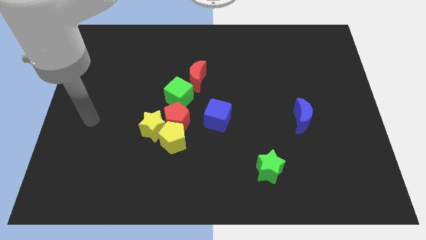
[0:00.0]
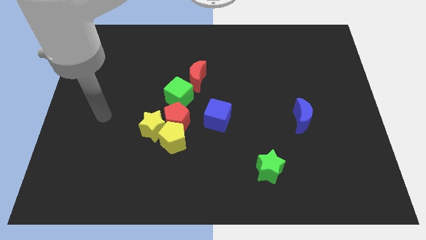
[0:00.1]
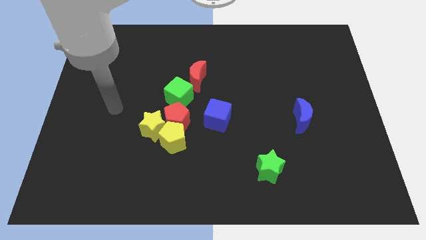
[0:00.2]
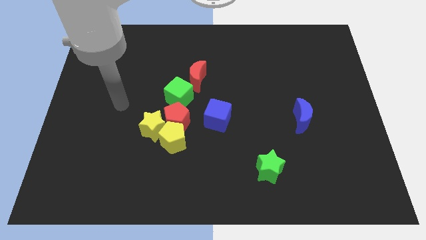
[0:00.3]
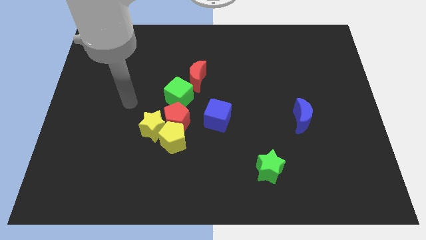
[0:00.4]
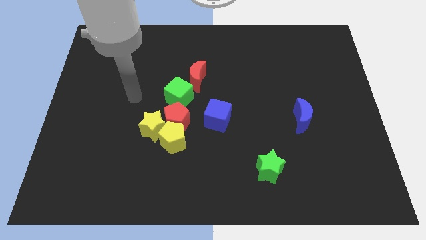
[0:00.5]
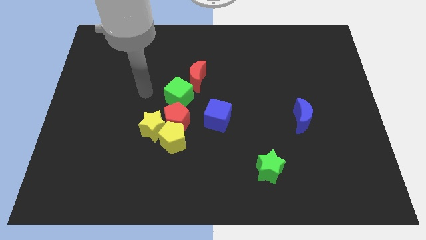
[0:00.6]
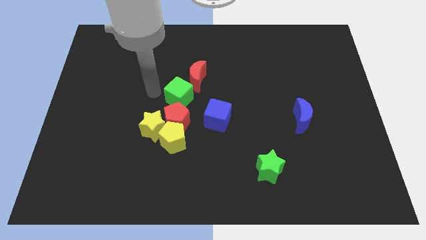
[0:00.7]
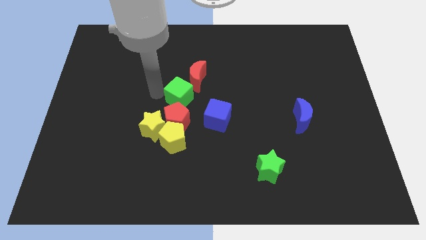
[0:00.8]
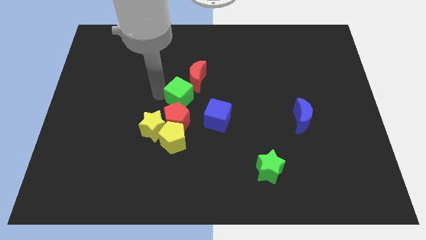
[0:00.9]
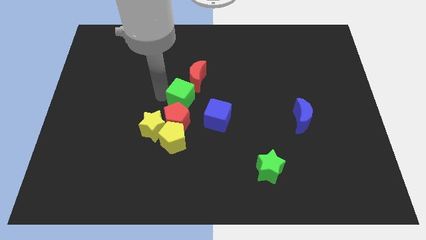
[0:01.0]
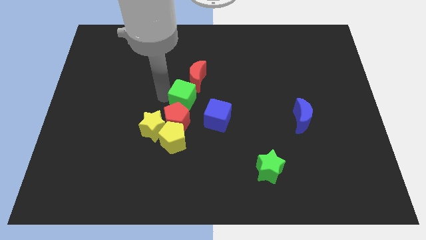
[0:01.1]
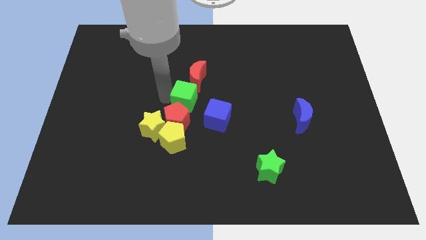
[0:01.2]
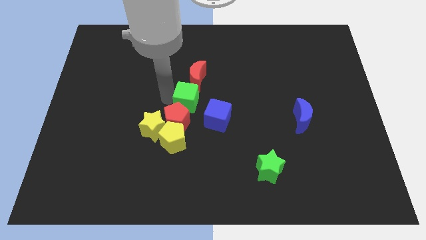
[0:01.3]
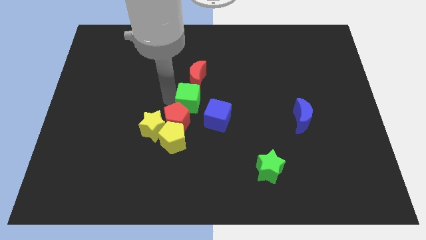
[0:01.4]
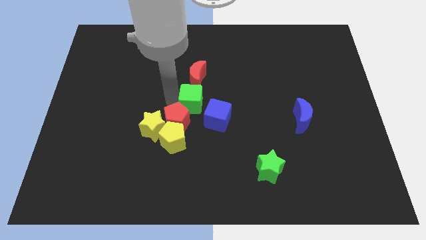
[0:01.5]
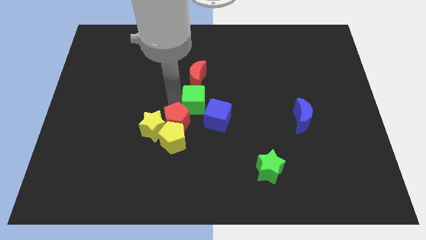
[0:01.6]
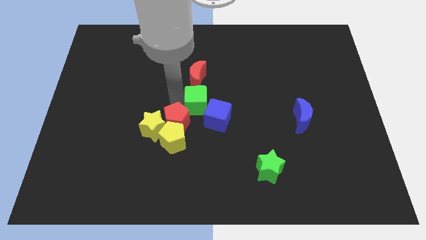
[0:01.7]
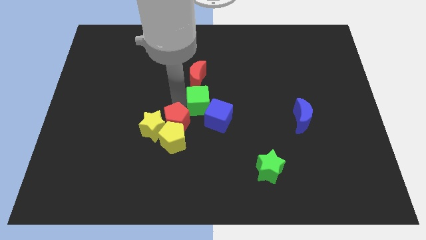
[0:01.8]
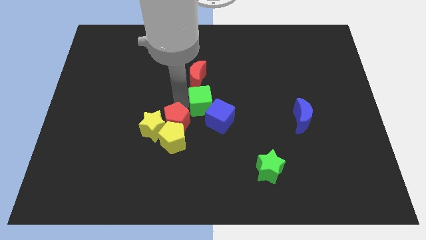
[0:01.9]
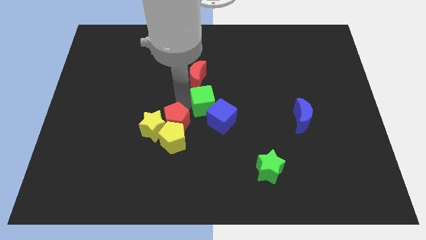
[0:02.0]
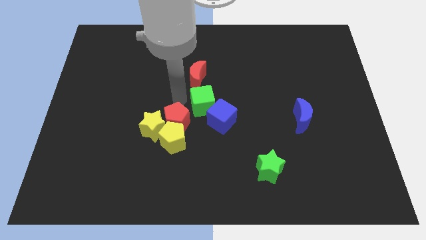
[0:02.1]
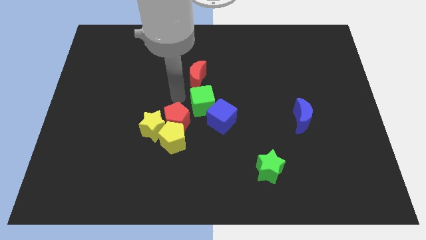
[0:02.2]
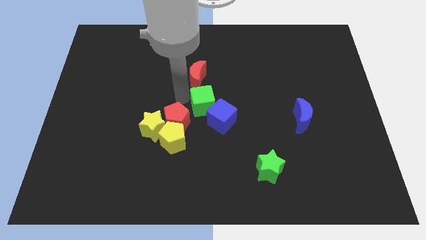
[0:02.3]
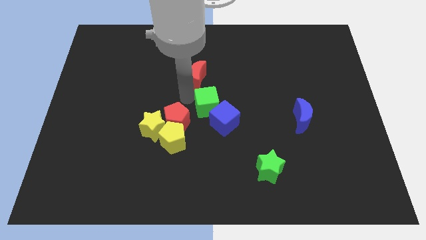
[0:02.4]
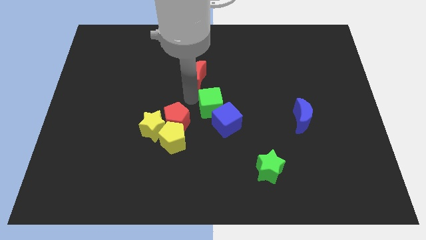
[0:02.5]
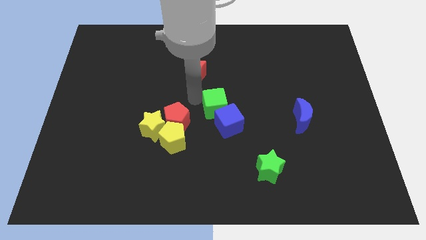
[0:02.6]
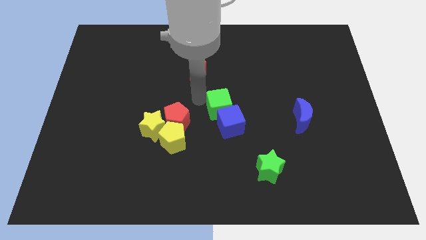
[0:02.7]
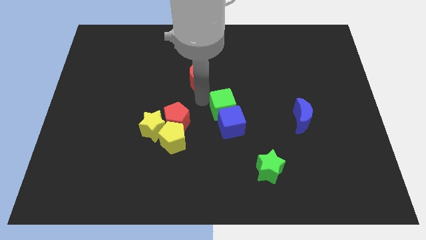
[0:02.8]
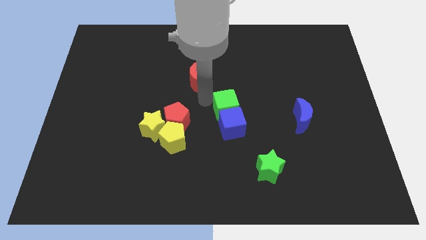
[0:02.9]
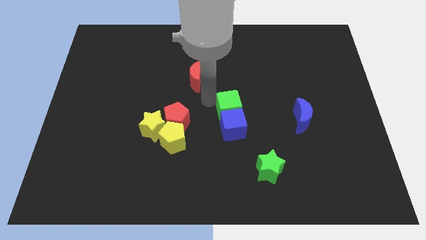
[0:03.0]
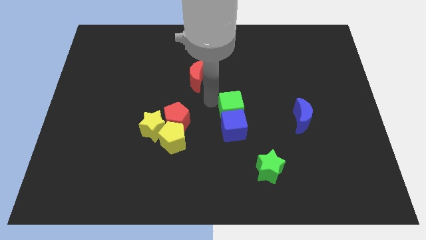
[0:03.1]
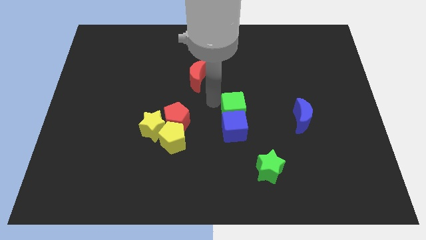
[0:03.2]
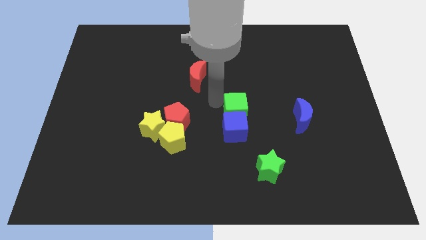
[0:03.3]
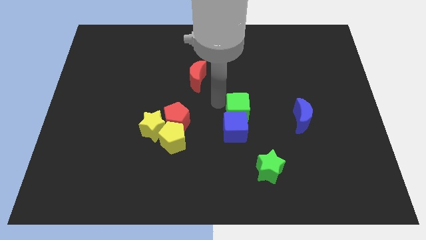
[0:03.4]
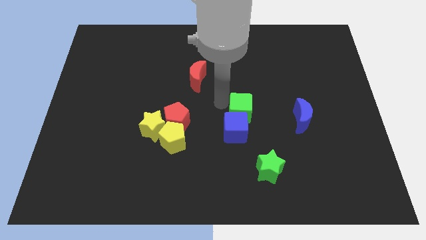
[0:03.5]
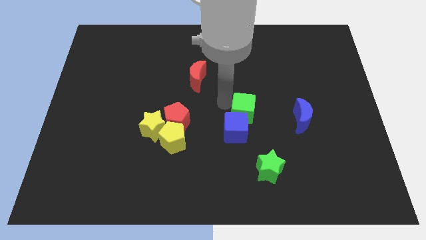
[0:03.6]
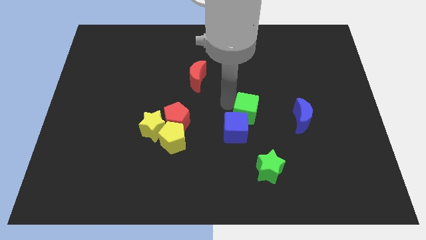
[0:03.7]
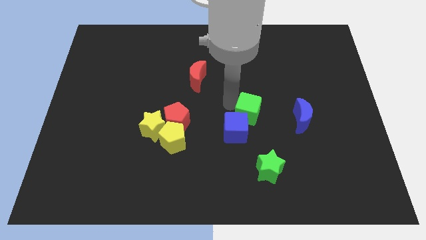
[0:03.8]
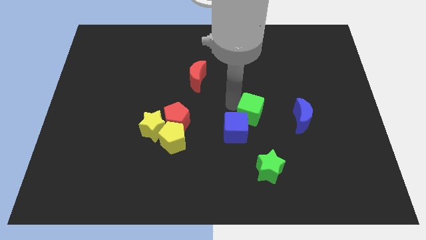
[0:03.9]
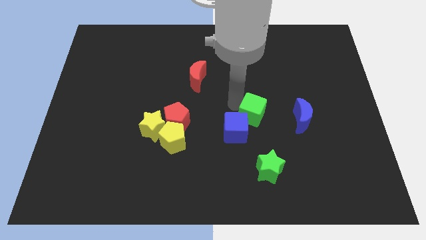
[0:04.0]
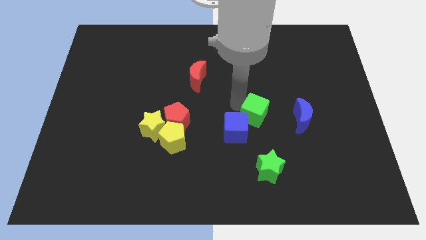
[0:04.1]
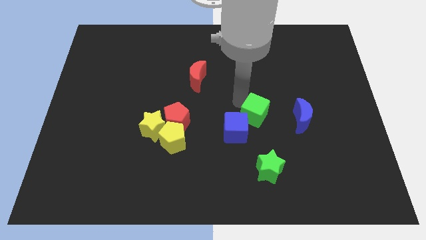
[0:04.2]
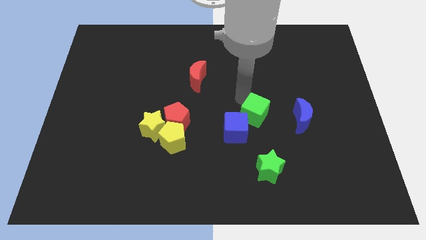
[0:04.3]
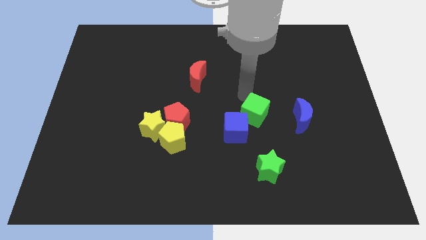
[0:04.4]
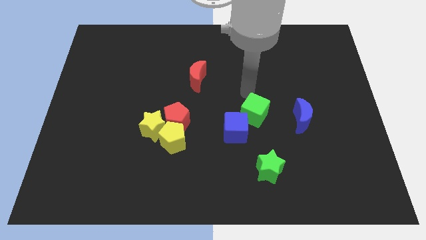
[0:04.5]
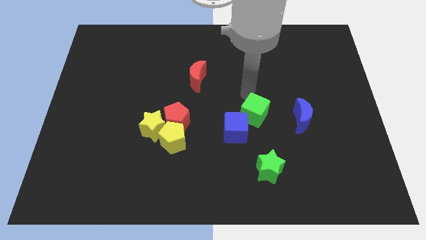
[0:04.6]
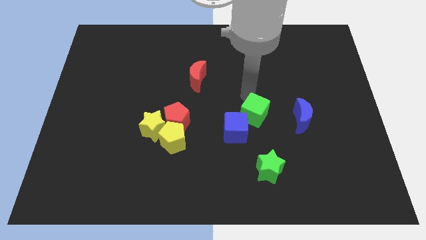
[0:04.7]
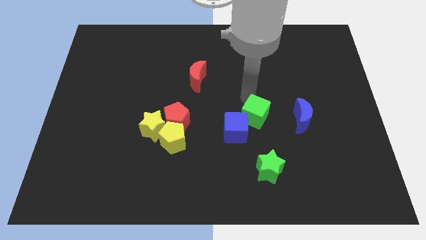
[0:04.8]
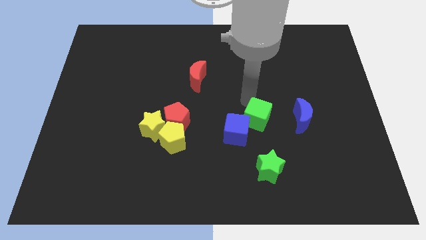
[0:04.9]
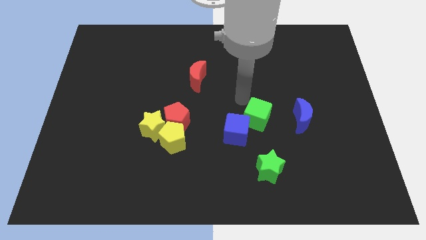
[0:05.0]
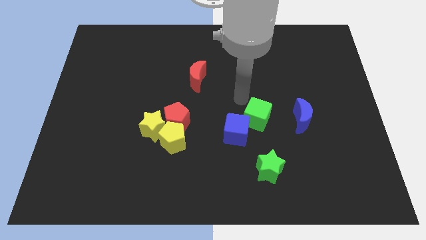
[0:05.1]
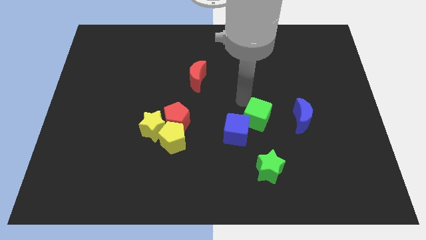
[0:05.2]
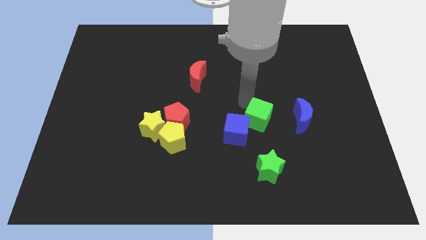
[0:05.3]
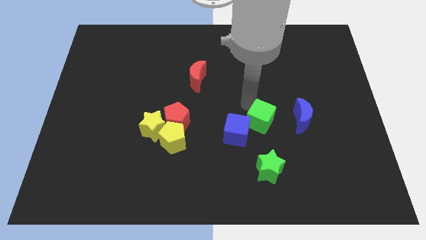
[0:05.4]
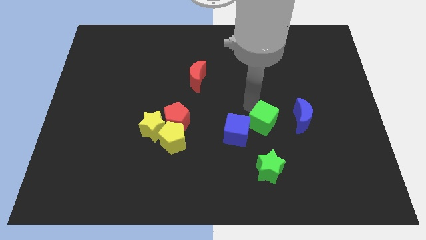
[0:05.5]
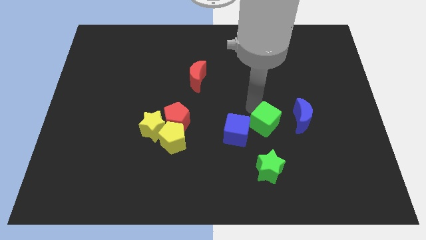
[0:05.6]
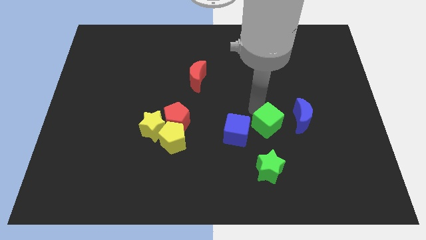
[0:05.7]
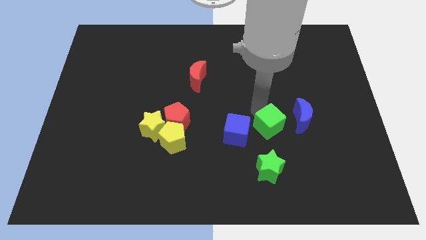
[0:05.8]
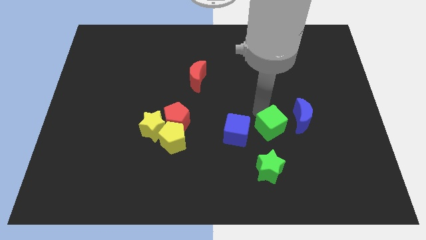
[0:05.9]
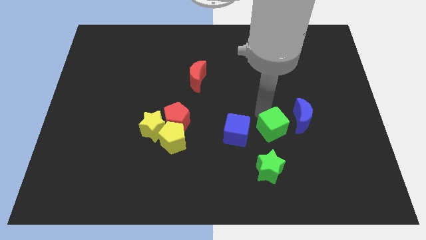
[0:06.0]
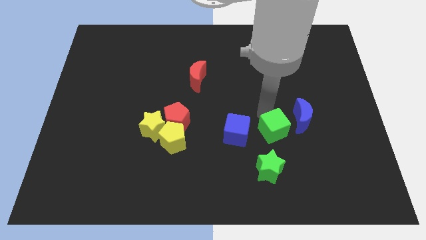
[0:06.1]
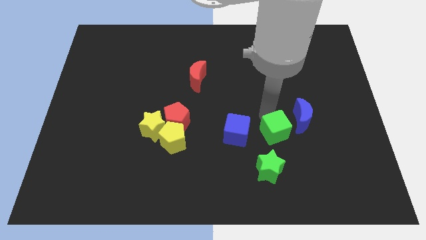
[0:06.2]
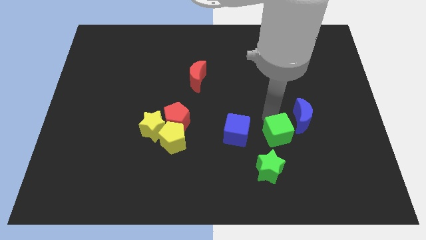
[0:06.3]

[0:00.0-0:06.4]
move the green cube diagonally downwards and to the right

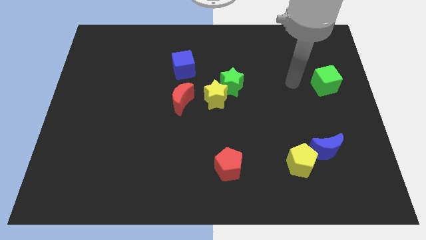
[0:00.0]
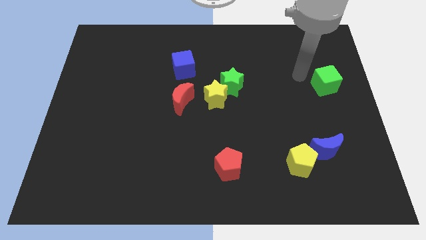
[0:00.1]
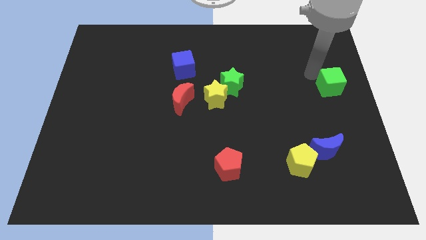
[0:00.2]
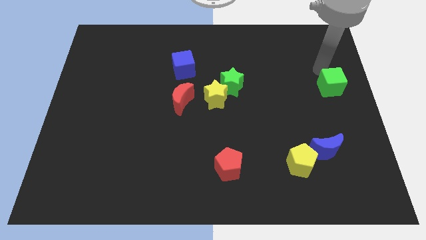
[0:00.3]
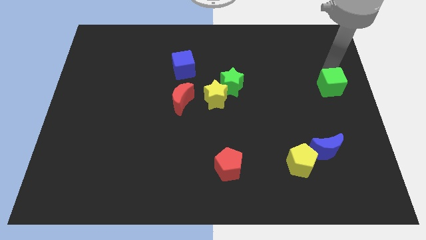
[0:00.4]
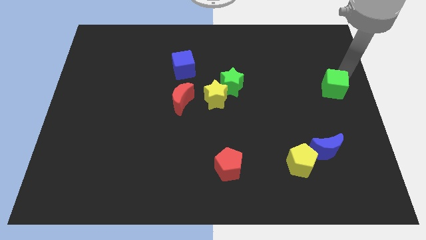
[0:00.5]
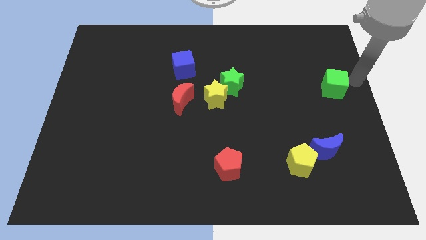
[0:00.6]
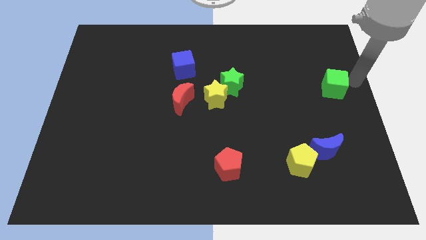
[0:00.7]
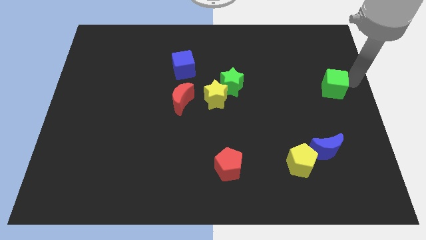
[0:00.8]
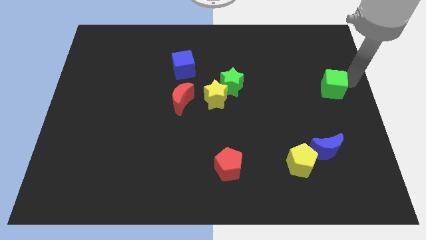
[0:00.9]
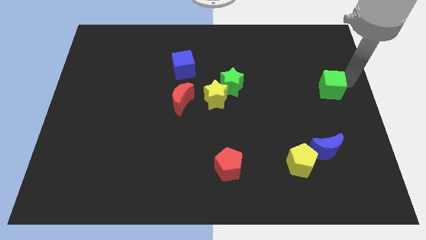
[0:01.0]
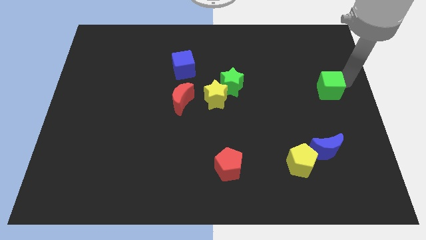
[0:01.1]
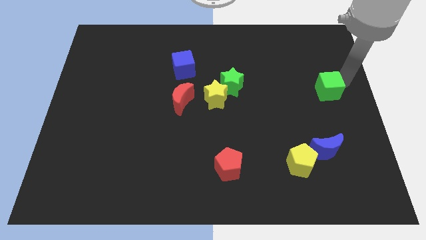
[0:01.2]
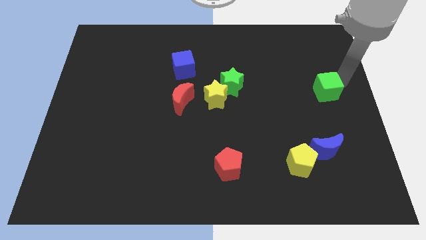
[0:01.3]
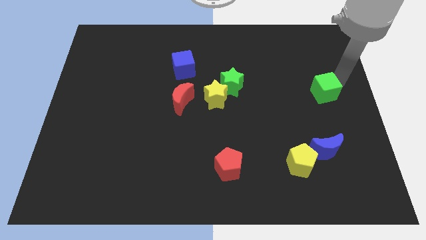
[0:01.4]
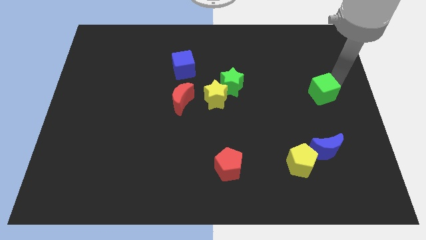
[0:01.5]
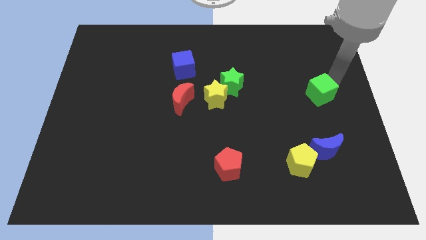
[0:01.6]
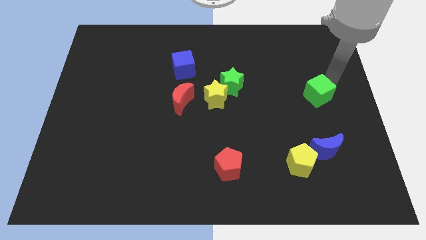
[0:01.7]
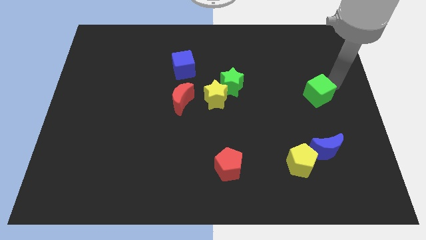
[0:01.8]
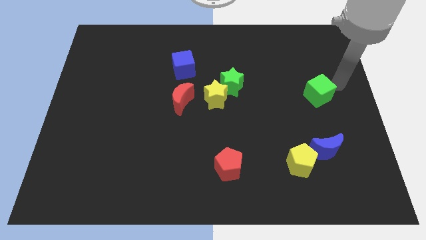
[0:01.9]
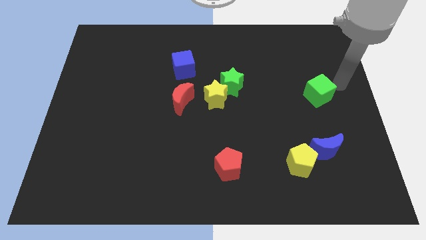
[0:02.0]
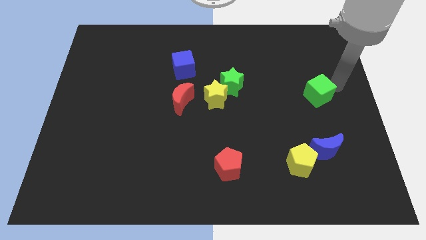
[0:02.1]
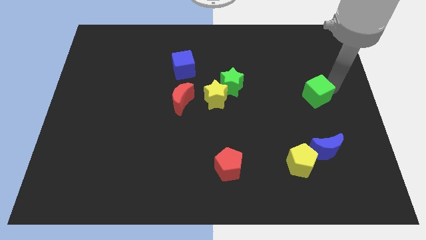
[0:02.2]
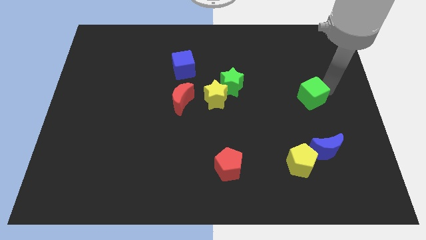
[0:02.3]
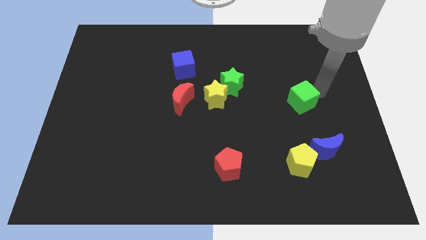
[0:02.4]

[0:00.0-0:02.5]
slightly slide the green cube downwards and left
